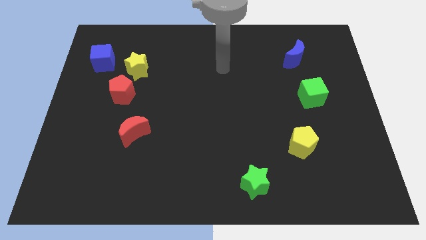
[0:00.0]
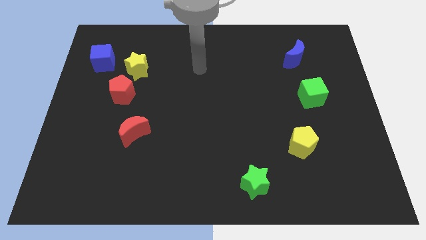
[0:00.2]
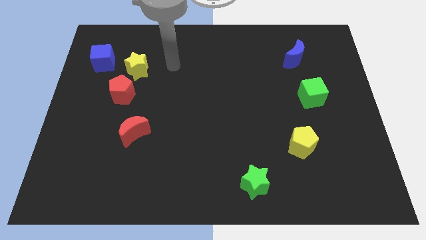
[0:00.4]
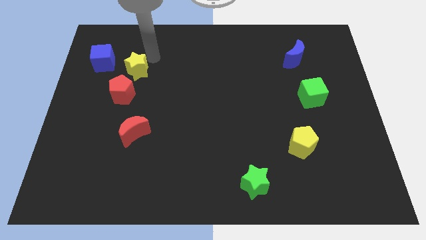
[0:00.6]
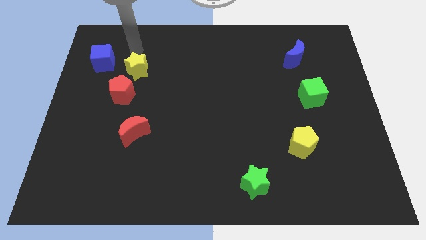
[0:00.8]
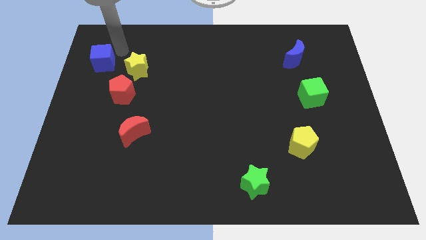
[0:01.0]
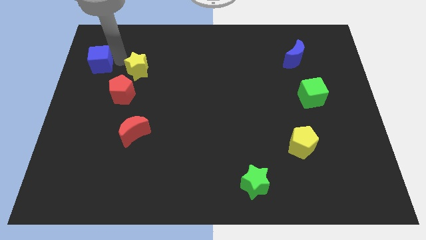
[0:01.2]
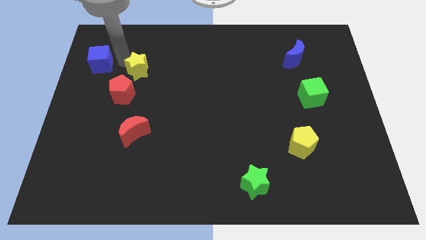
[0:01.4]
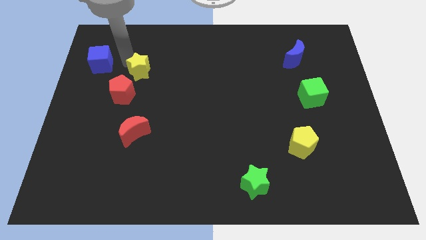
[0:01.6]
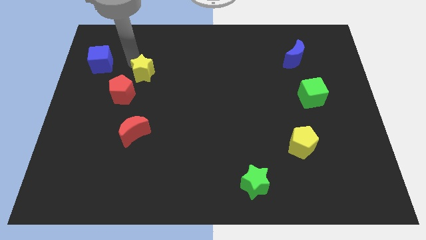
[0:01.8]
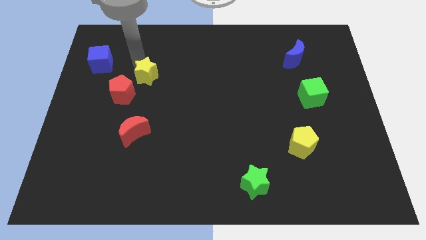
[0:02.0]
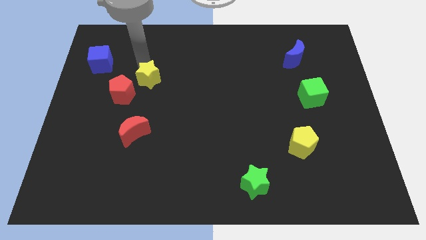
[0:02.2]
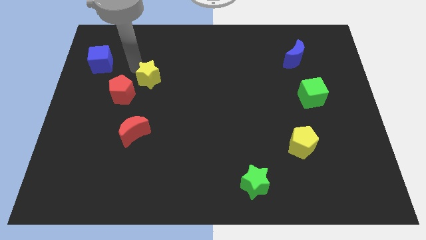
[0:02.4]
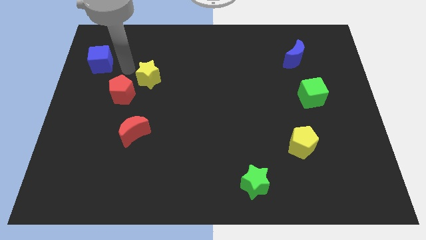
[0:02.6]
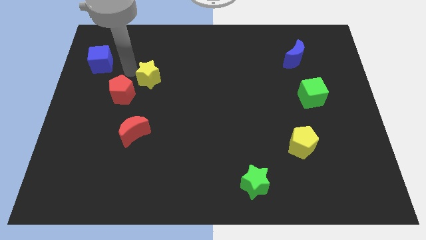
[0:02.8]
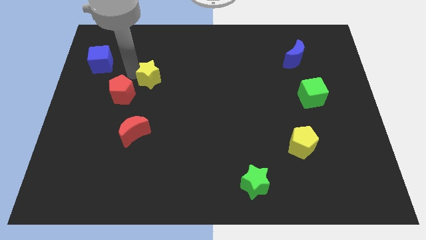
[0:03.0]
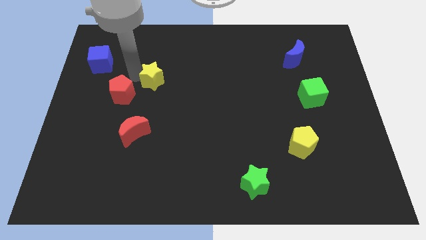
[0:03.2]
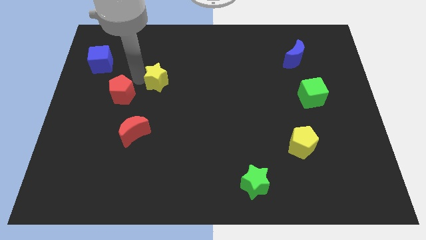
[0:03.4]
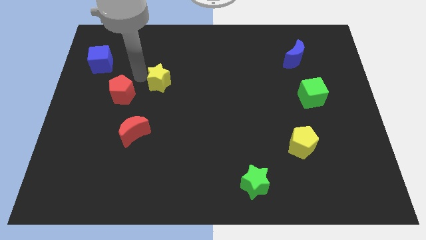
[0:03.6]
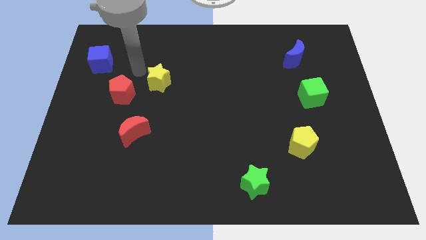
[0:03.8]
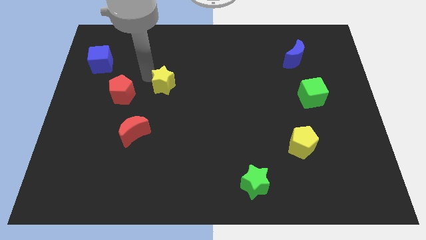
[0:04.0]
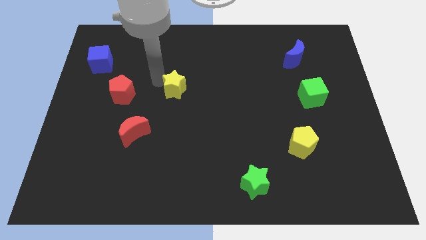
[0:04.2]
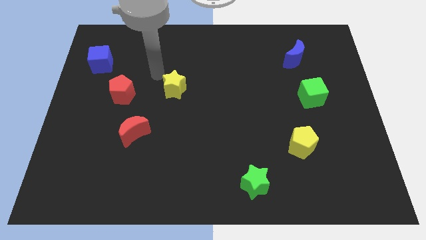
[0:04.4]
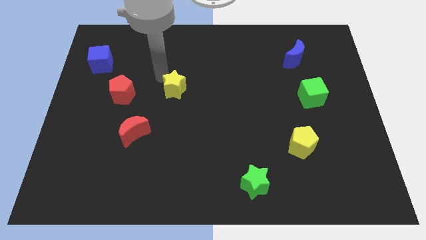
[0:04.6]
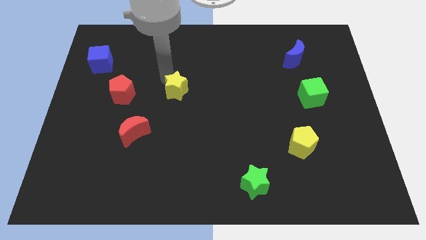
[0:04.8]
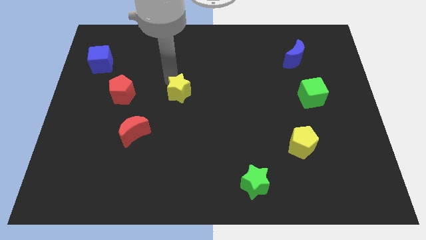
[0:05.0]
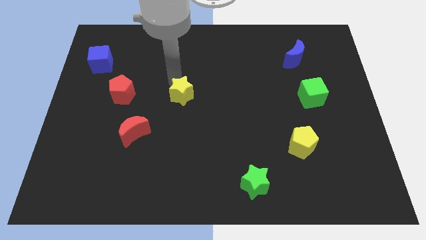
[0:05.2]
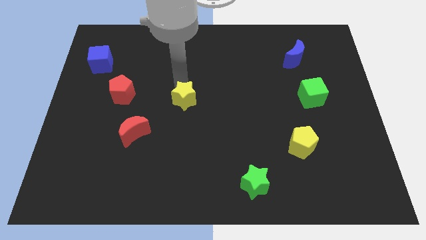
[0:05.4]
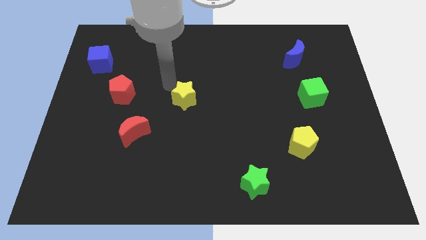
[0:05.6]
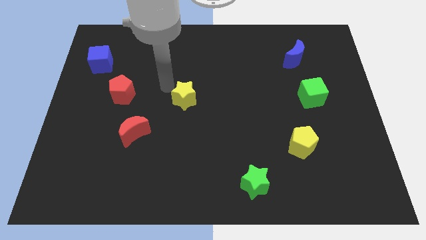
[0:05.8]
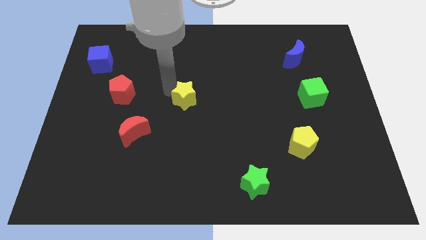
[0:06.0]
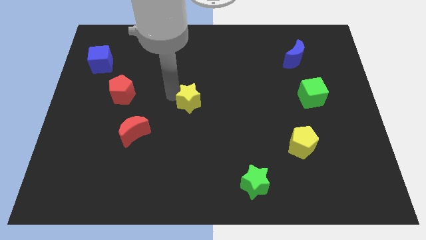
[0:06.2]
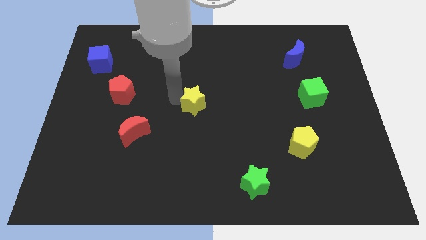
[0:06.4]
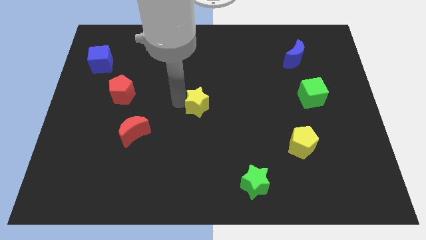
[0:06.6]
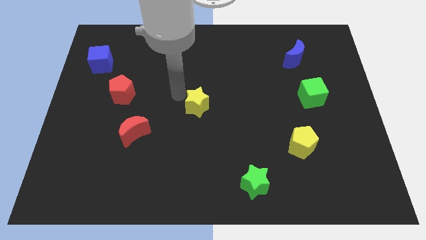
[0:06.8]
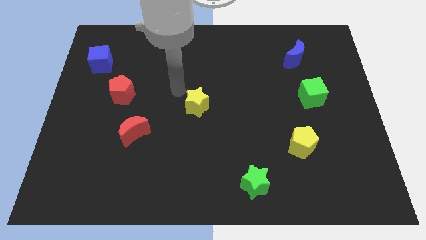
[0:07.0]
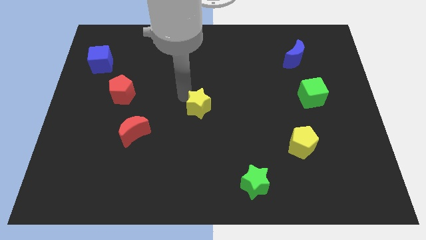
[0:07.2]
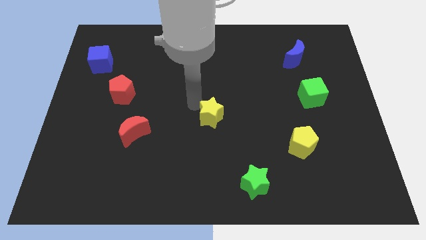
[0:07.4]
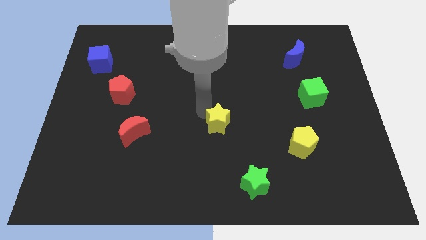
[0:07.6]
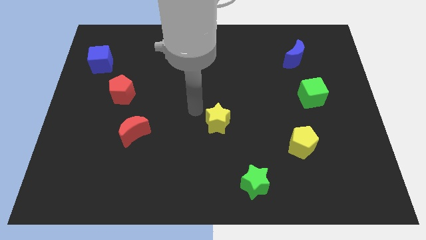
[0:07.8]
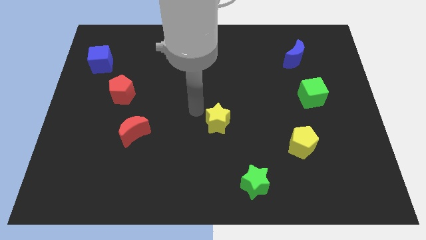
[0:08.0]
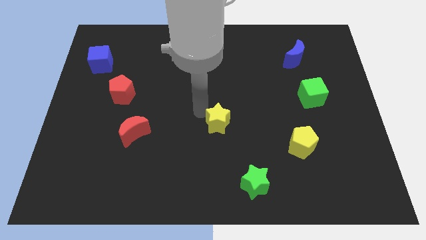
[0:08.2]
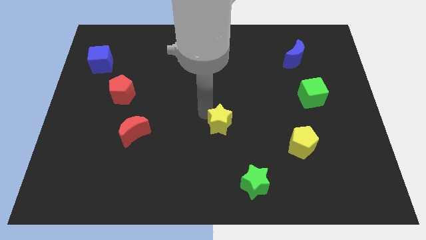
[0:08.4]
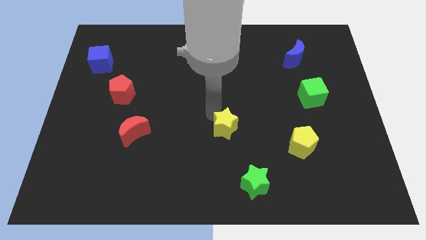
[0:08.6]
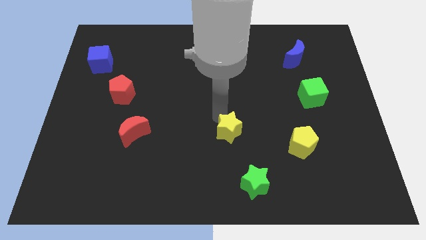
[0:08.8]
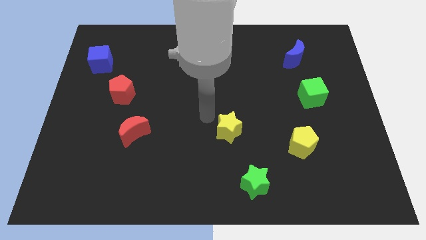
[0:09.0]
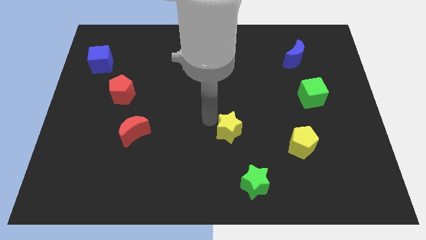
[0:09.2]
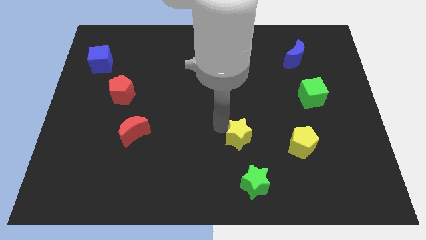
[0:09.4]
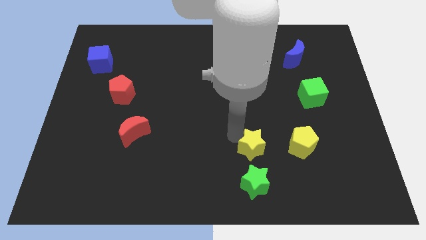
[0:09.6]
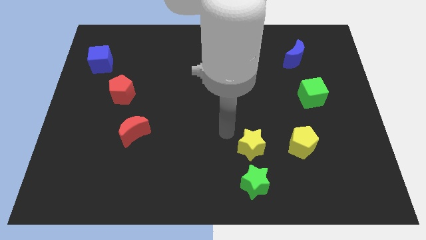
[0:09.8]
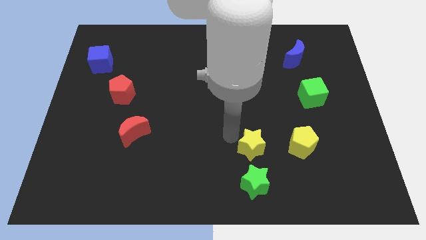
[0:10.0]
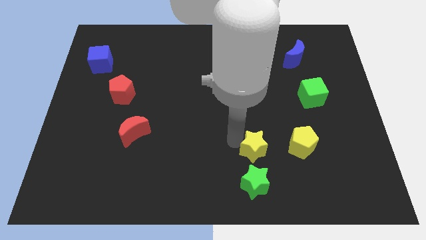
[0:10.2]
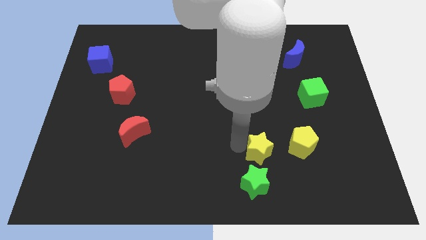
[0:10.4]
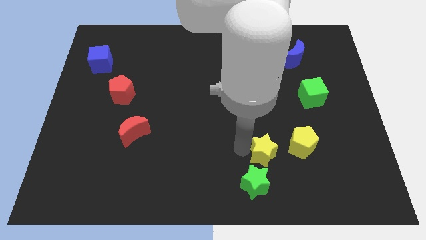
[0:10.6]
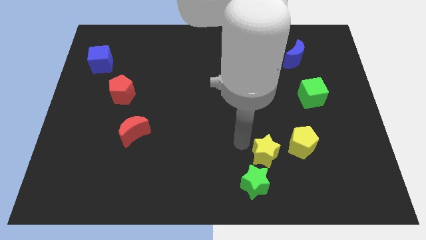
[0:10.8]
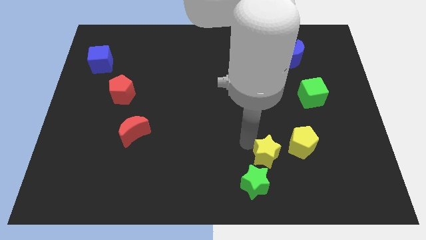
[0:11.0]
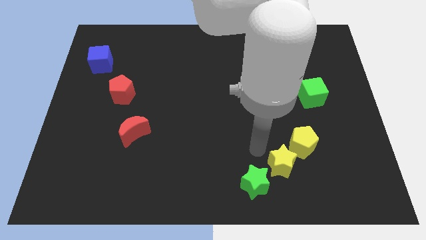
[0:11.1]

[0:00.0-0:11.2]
put the yellow star to the right side of the green star

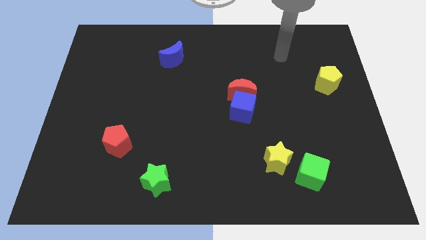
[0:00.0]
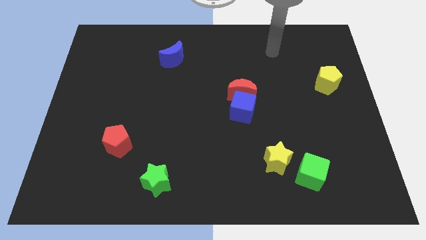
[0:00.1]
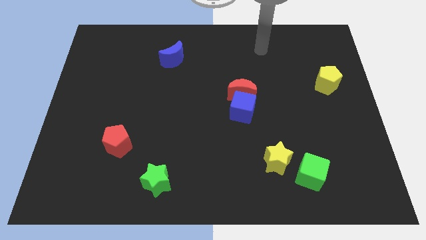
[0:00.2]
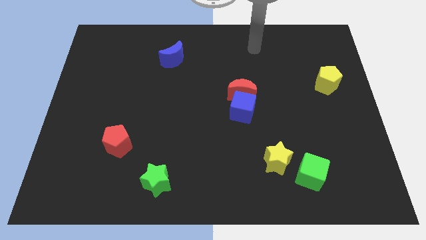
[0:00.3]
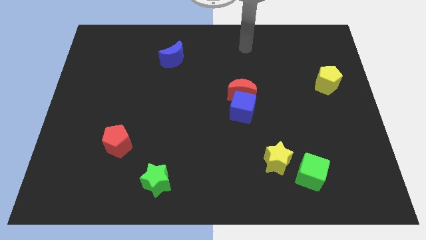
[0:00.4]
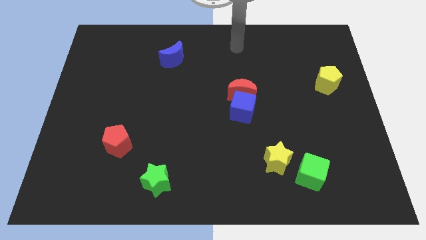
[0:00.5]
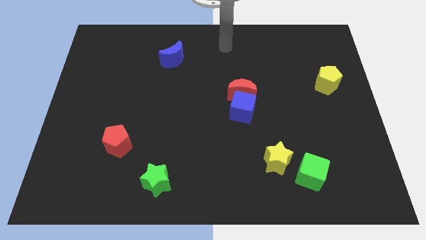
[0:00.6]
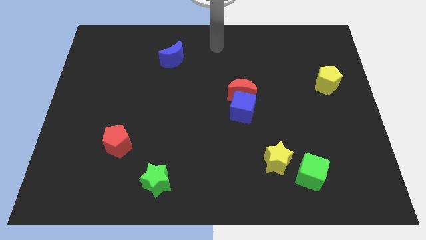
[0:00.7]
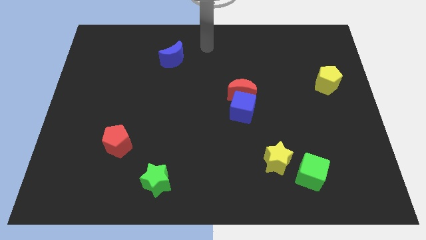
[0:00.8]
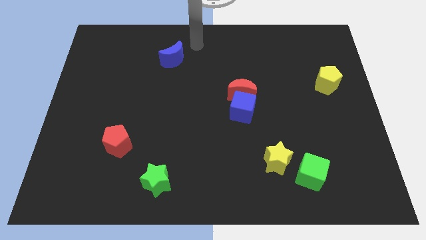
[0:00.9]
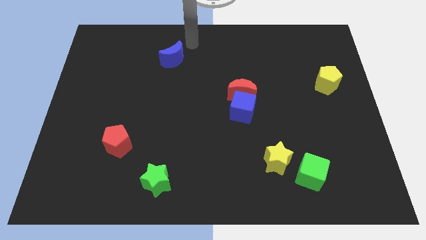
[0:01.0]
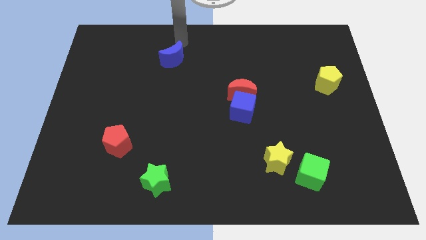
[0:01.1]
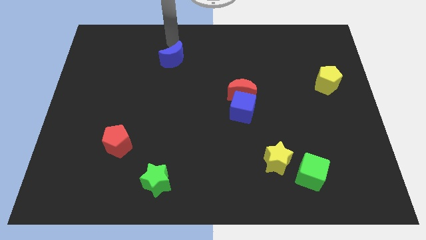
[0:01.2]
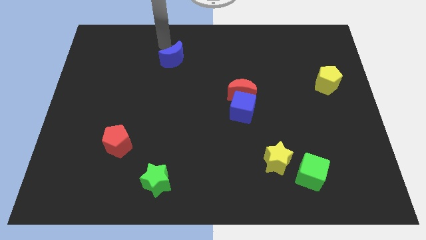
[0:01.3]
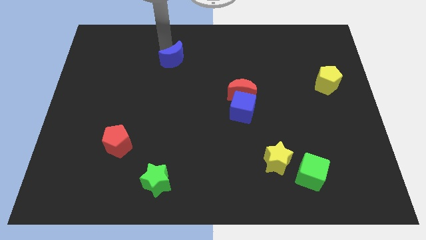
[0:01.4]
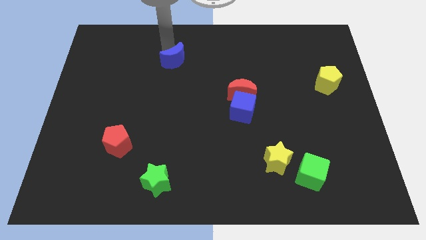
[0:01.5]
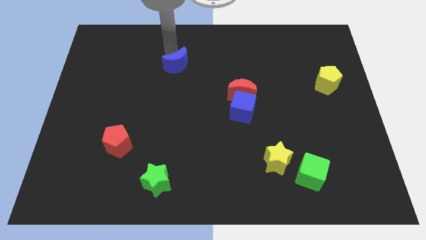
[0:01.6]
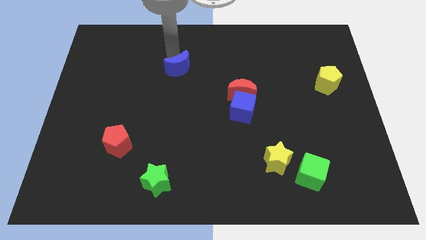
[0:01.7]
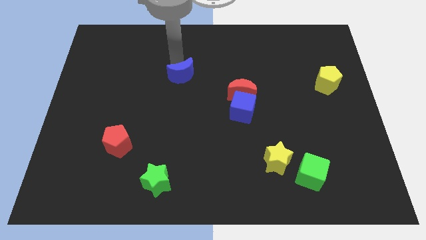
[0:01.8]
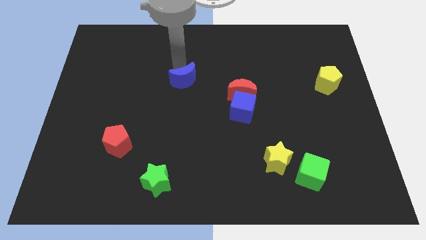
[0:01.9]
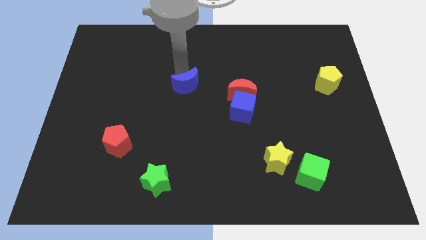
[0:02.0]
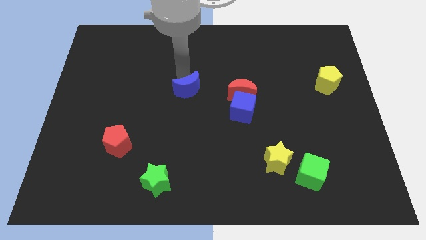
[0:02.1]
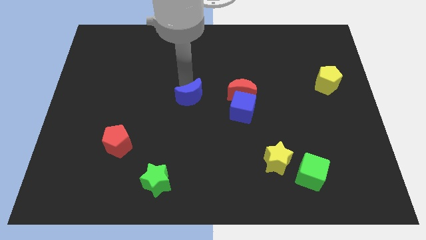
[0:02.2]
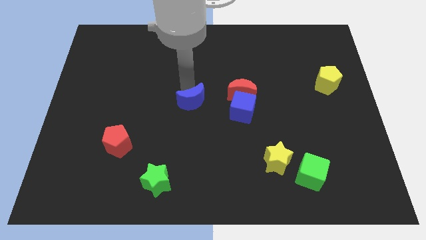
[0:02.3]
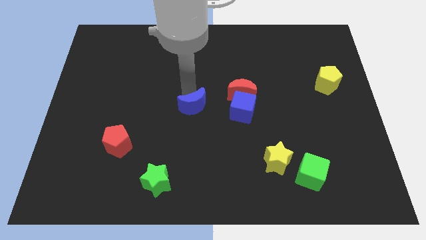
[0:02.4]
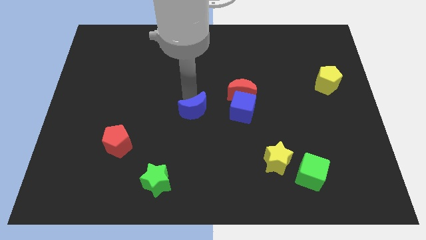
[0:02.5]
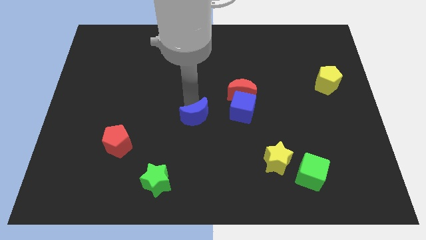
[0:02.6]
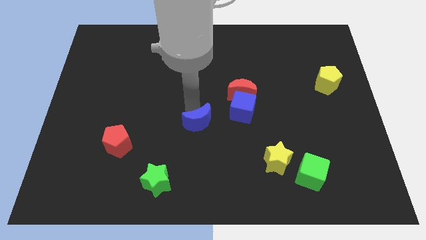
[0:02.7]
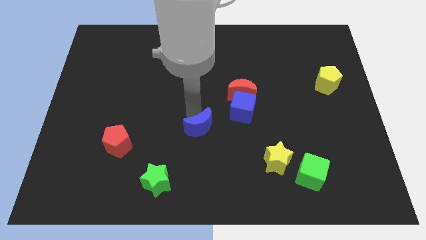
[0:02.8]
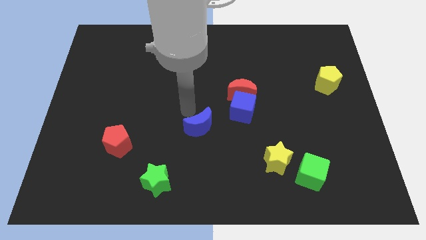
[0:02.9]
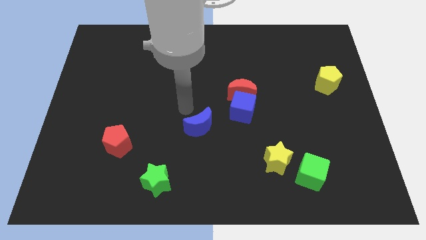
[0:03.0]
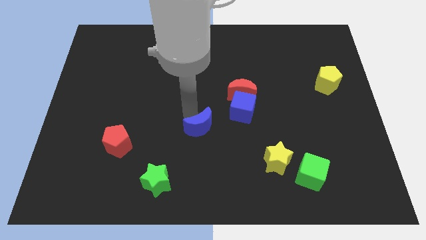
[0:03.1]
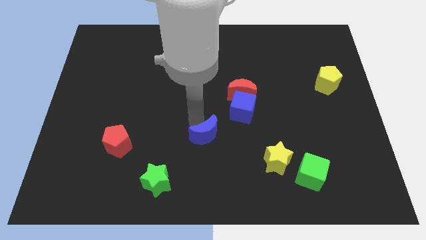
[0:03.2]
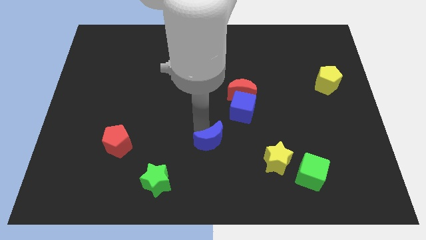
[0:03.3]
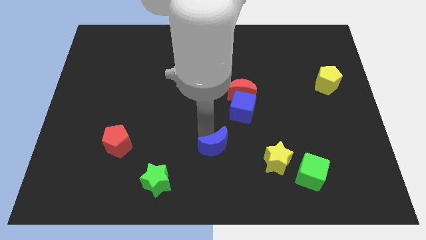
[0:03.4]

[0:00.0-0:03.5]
put the blue moon to the left of the yellow star
